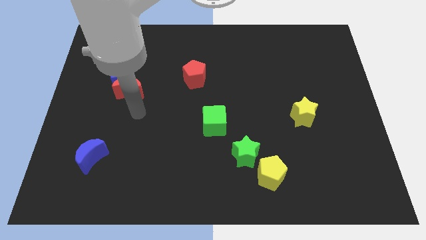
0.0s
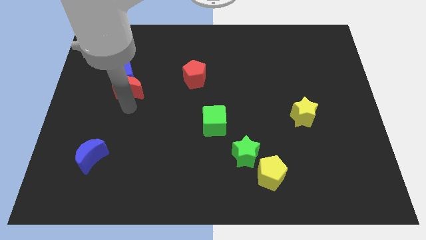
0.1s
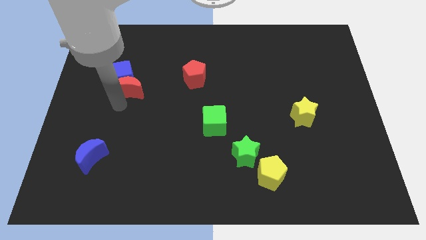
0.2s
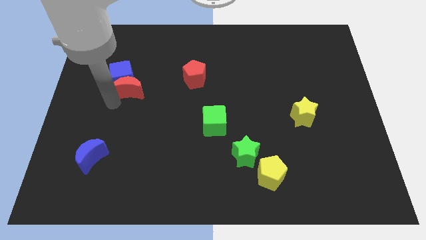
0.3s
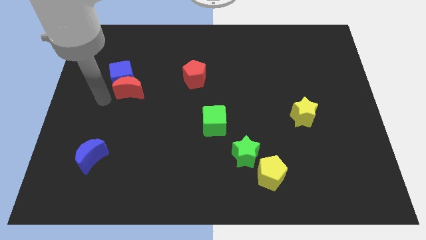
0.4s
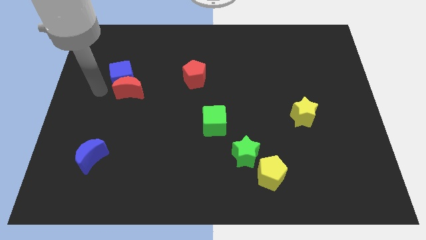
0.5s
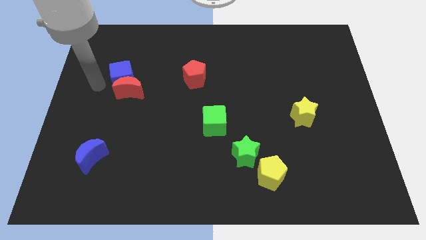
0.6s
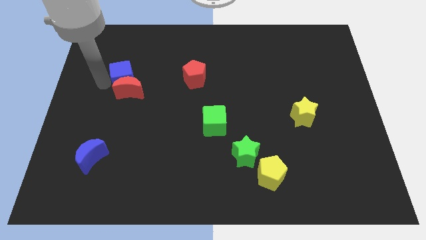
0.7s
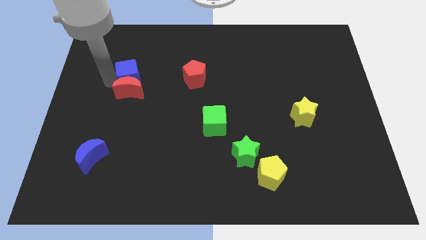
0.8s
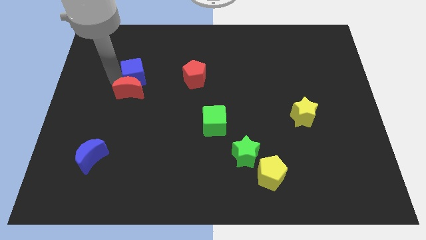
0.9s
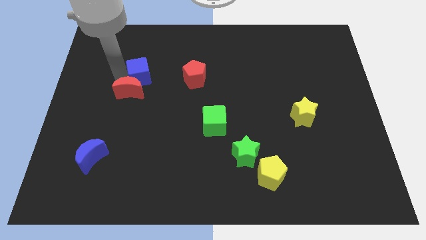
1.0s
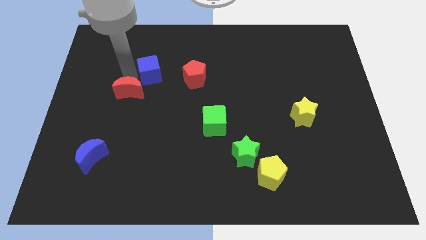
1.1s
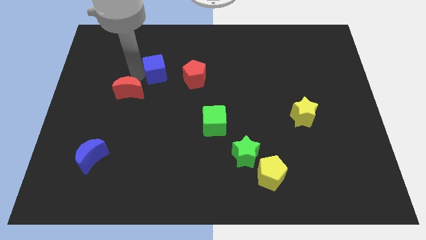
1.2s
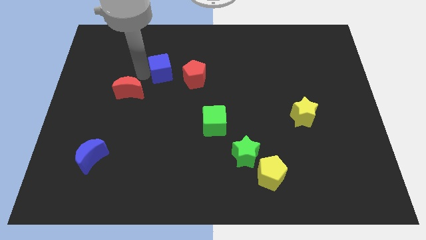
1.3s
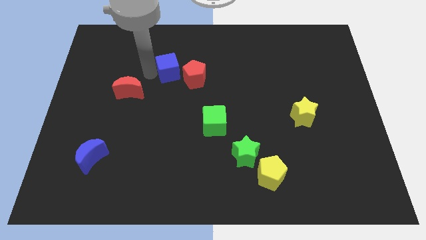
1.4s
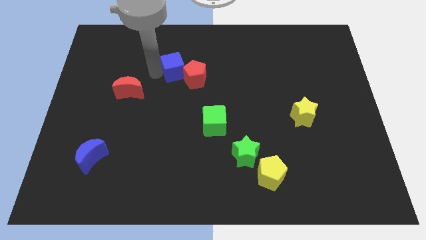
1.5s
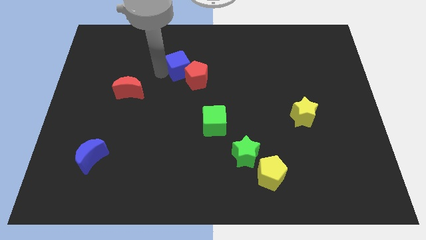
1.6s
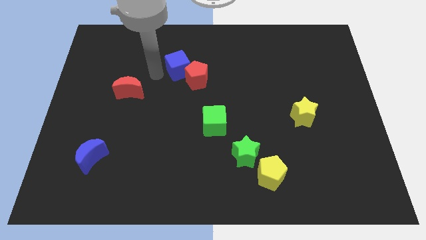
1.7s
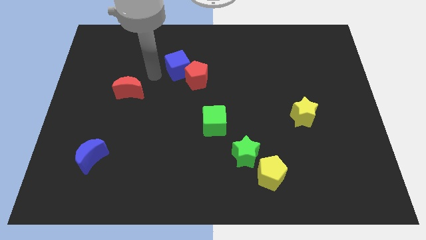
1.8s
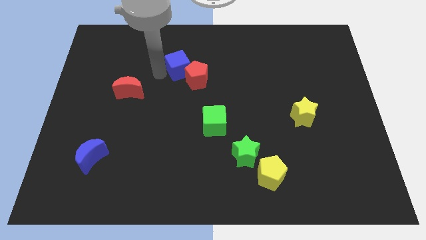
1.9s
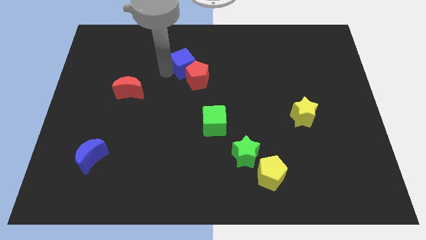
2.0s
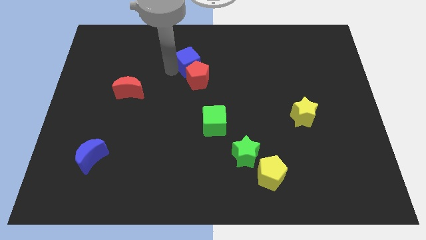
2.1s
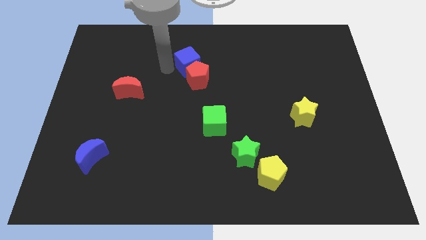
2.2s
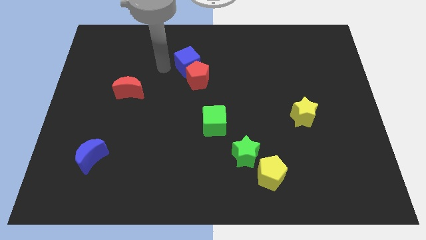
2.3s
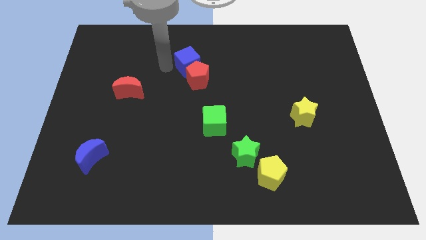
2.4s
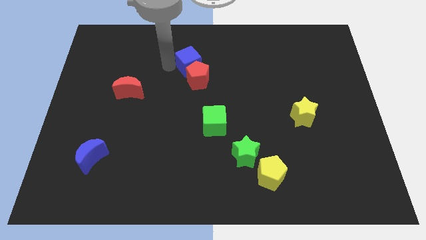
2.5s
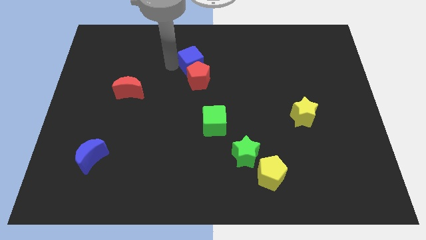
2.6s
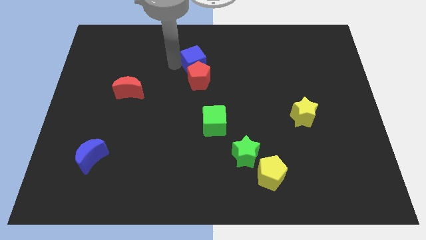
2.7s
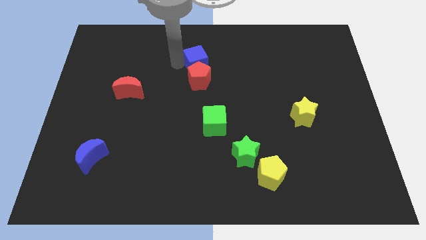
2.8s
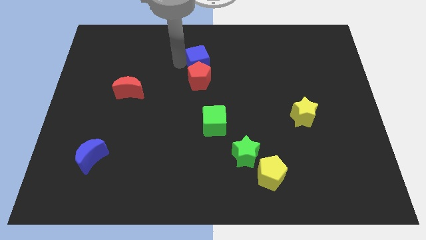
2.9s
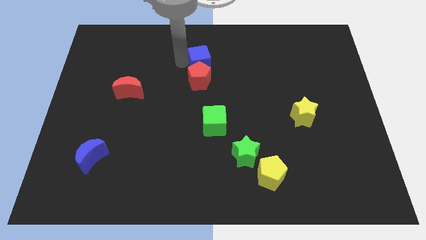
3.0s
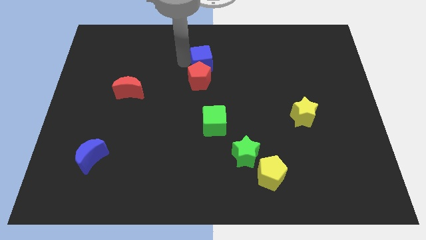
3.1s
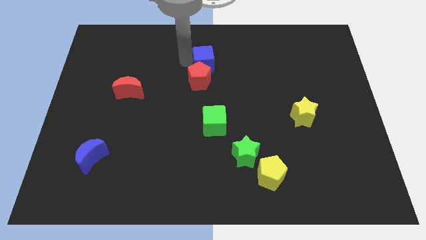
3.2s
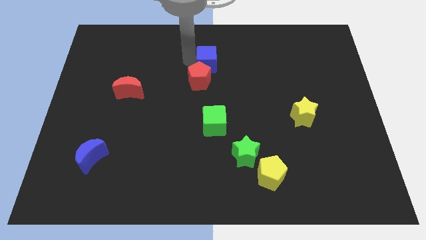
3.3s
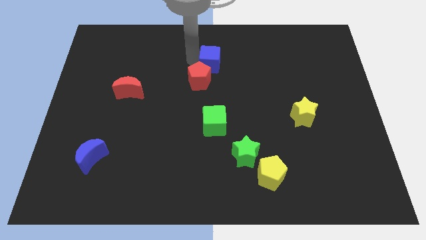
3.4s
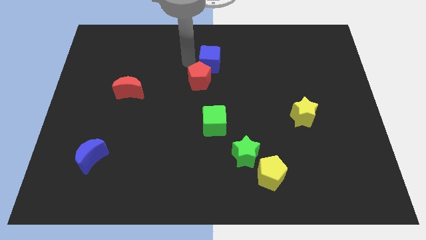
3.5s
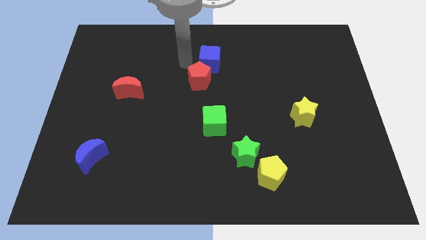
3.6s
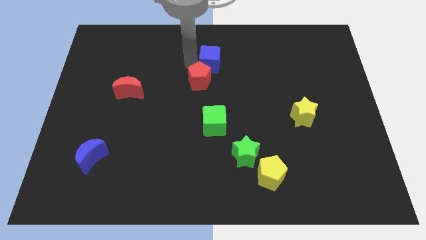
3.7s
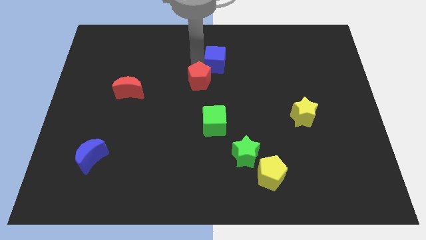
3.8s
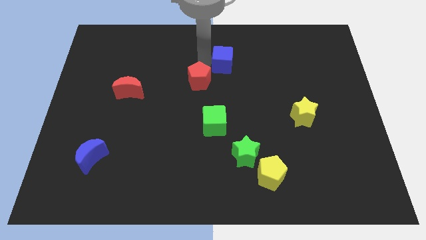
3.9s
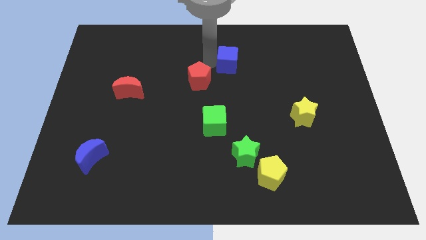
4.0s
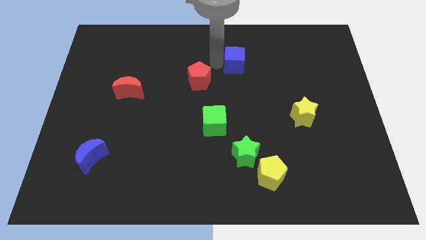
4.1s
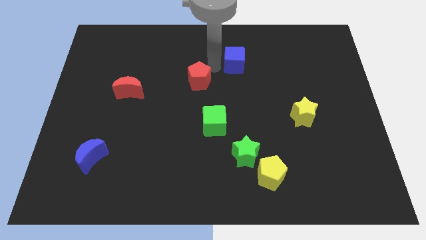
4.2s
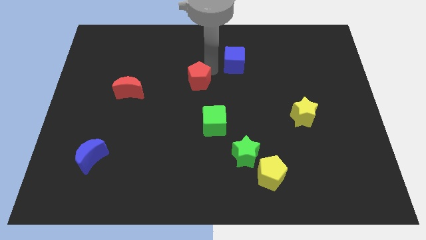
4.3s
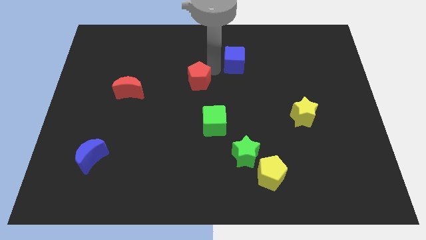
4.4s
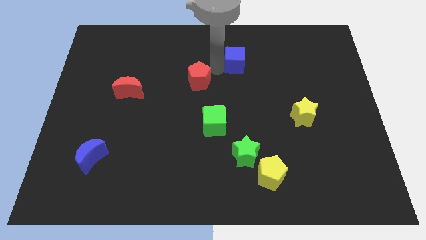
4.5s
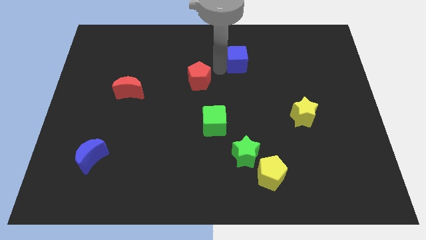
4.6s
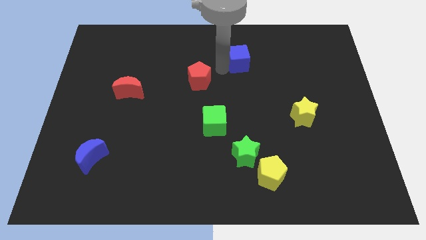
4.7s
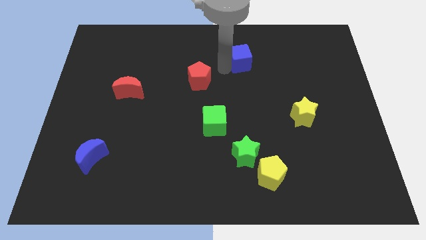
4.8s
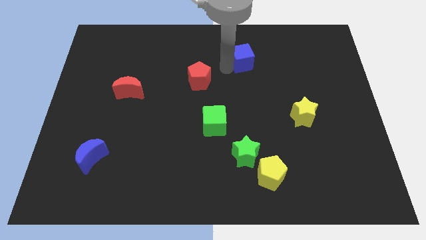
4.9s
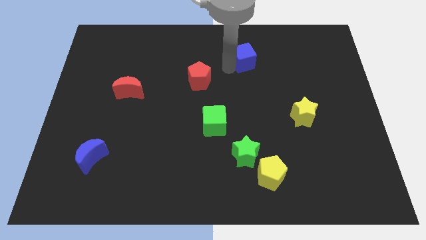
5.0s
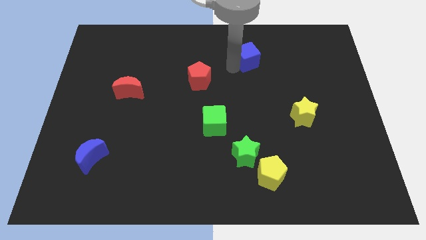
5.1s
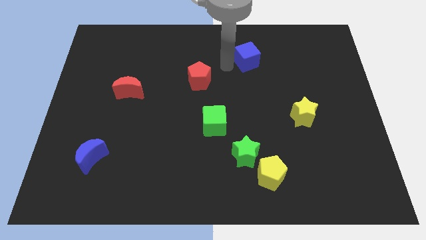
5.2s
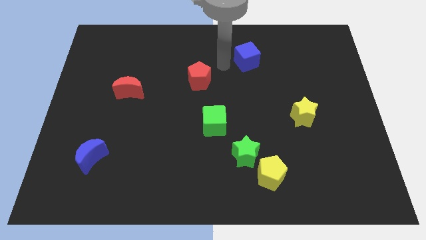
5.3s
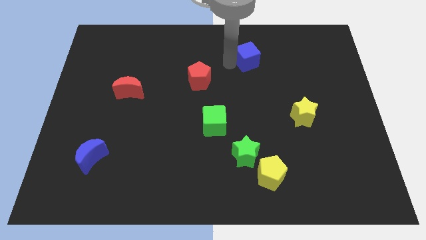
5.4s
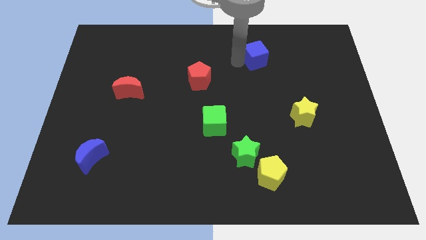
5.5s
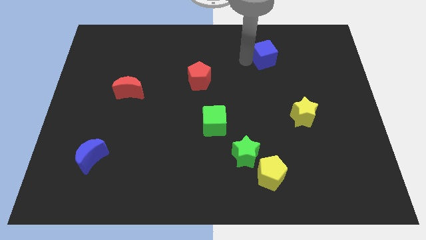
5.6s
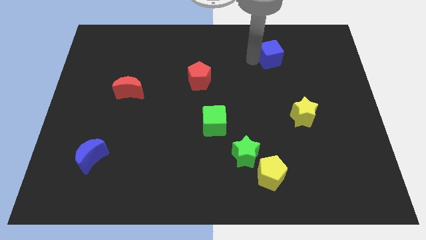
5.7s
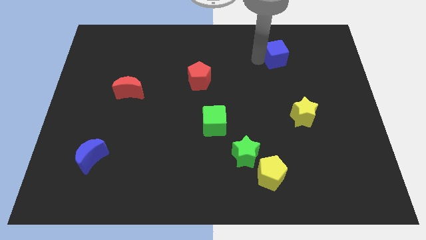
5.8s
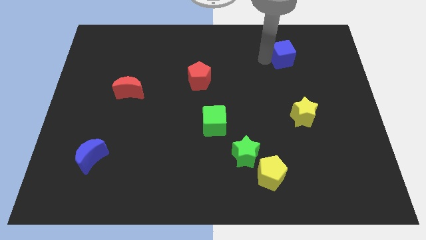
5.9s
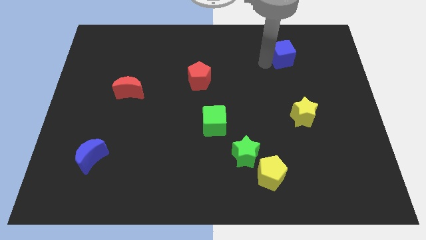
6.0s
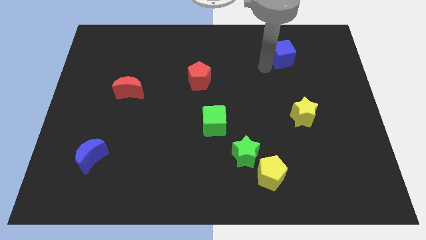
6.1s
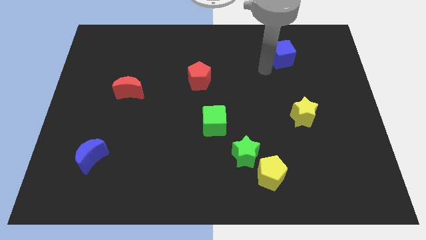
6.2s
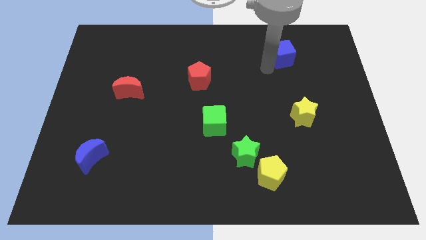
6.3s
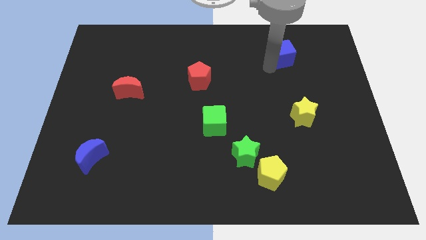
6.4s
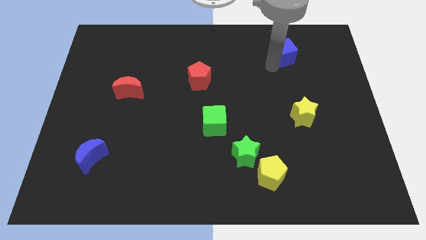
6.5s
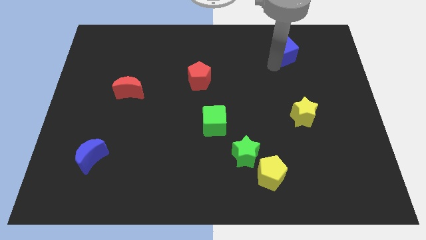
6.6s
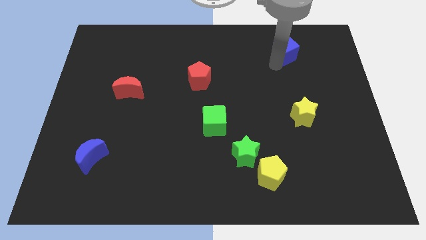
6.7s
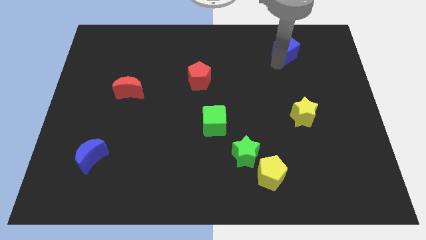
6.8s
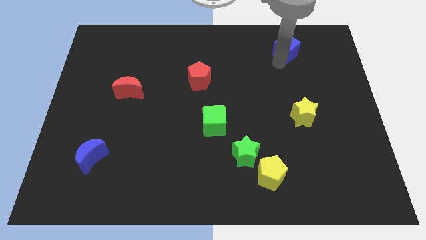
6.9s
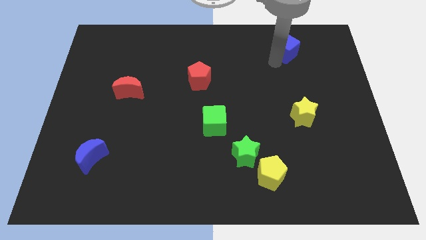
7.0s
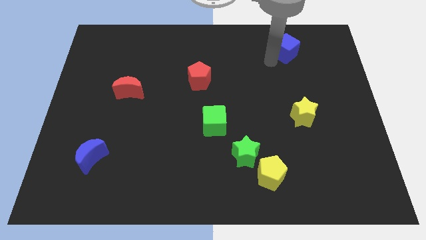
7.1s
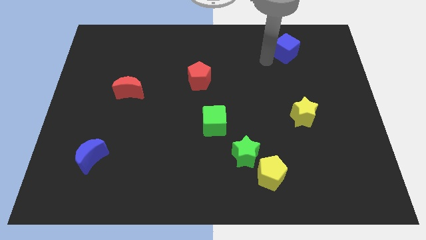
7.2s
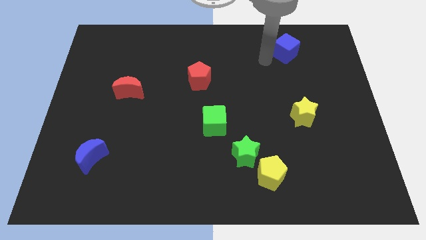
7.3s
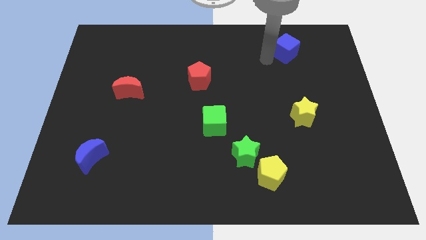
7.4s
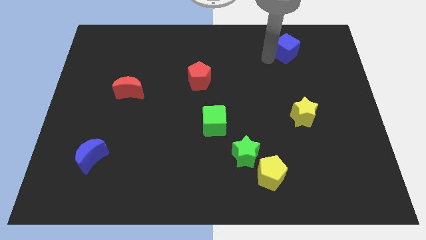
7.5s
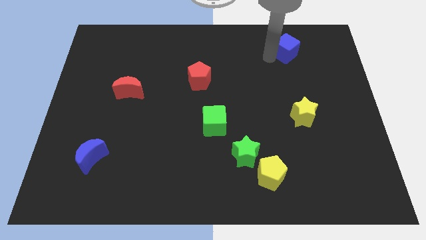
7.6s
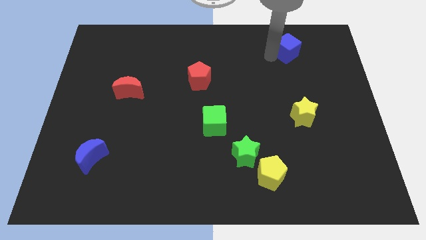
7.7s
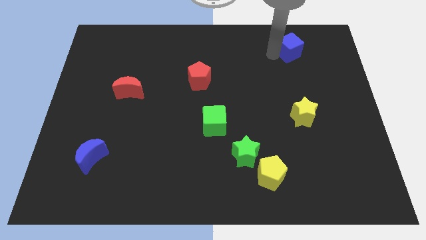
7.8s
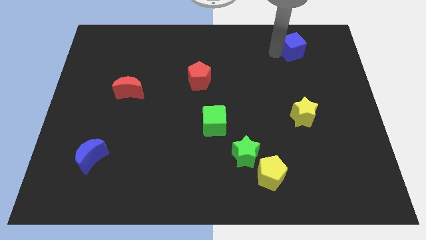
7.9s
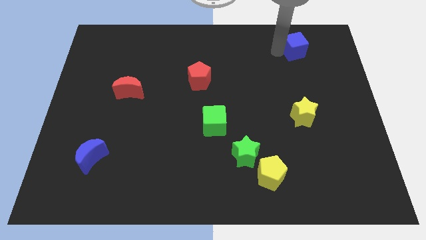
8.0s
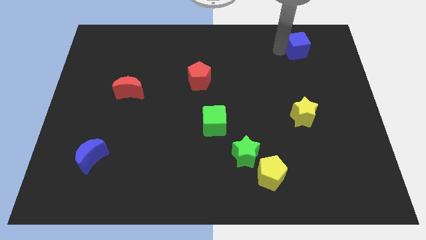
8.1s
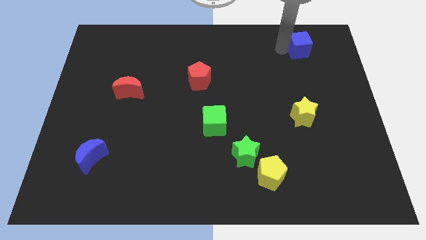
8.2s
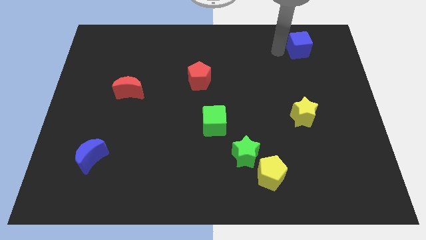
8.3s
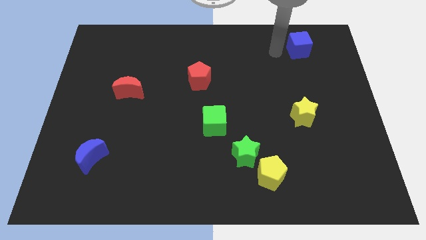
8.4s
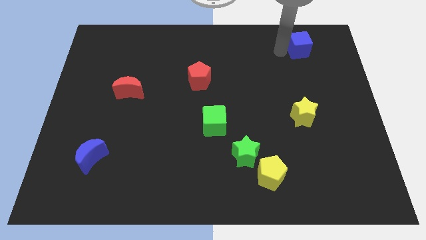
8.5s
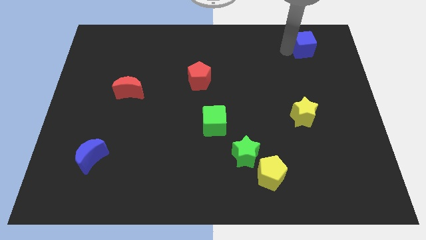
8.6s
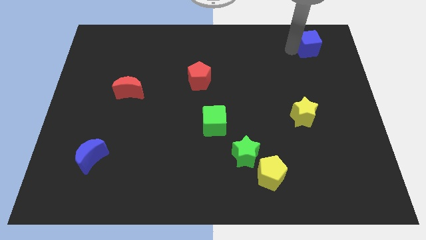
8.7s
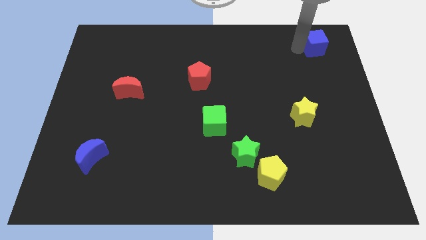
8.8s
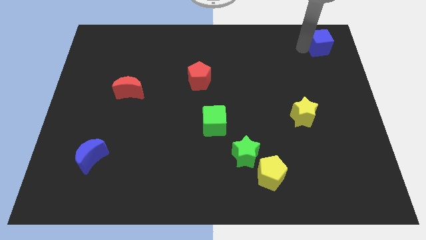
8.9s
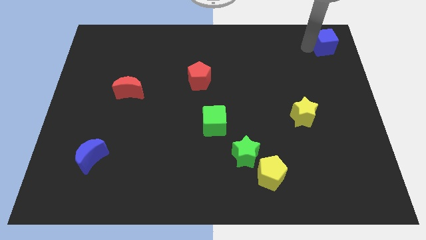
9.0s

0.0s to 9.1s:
put the blue cube to the upper right corner
